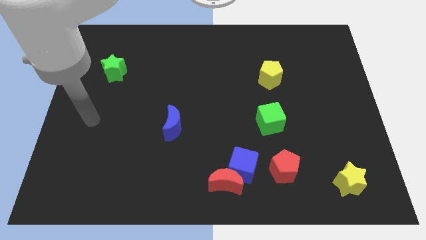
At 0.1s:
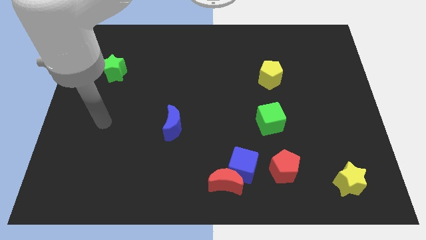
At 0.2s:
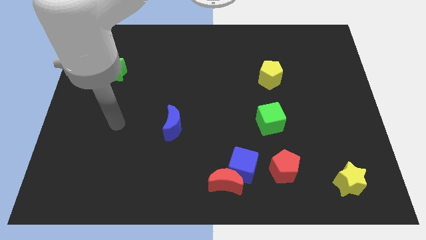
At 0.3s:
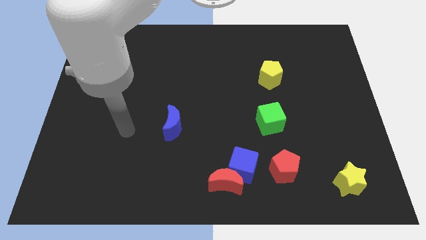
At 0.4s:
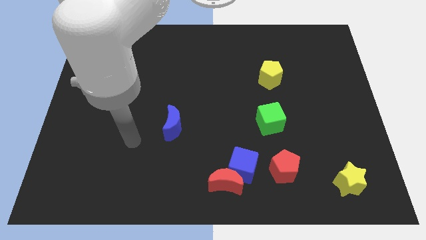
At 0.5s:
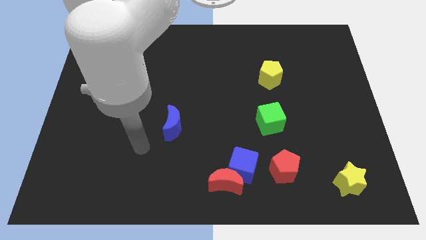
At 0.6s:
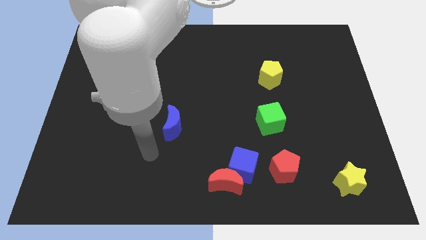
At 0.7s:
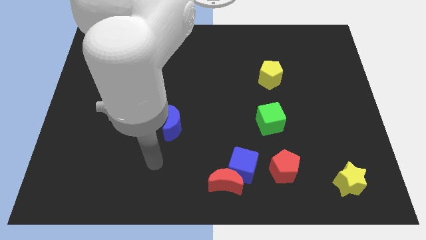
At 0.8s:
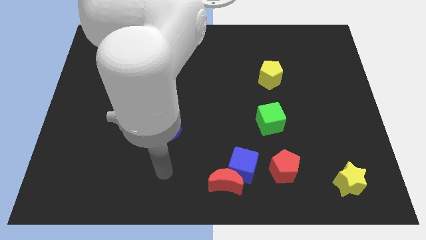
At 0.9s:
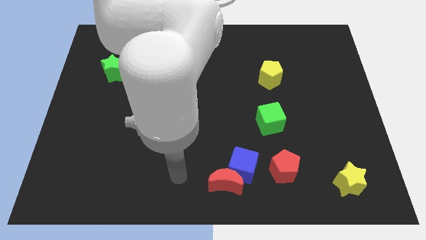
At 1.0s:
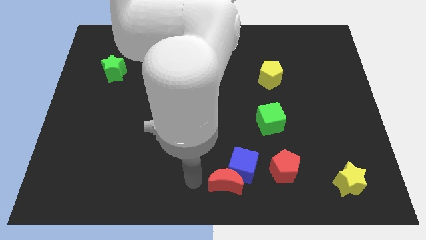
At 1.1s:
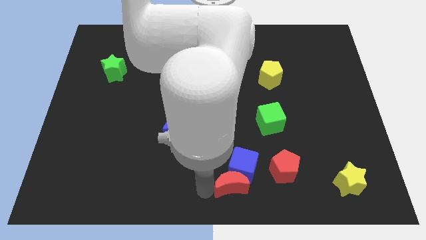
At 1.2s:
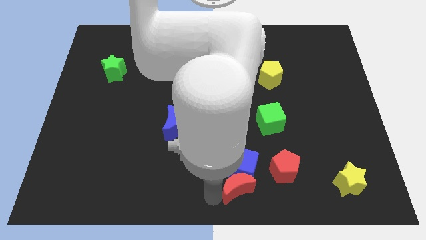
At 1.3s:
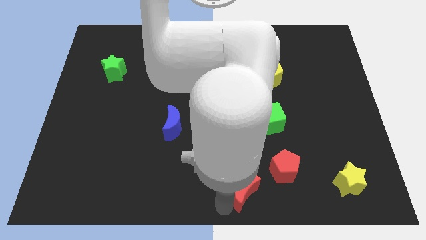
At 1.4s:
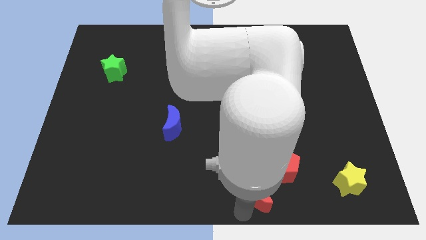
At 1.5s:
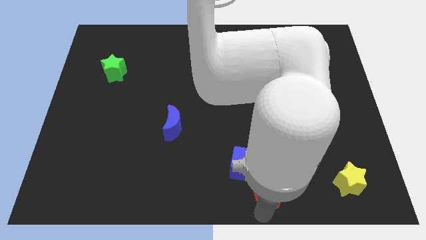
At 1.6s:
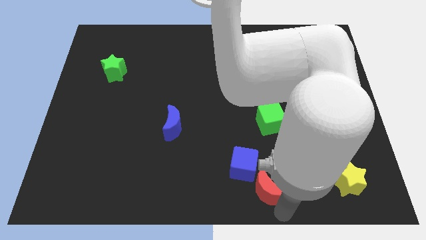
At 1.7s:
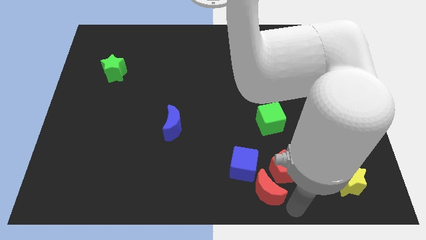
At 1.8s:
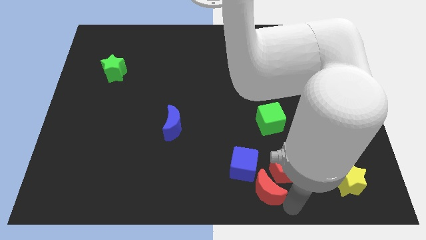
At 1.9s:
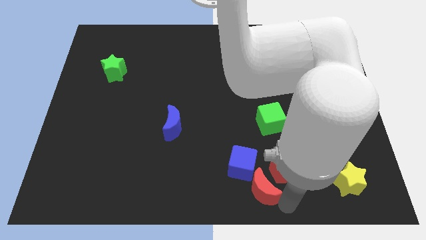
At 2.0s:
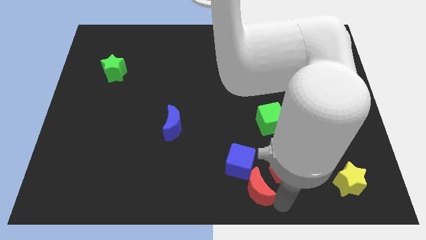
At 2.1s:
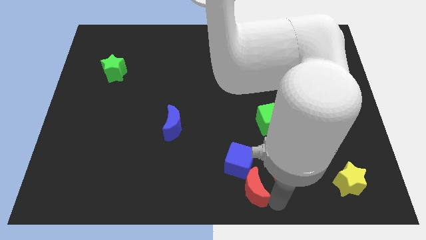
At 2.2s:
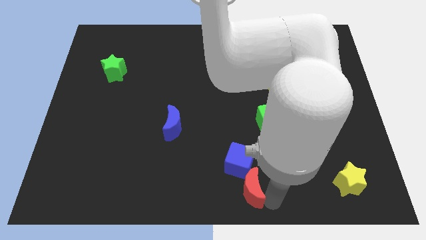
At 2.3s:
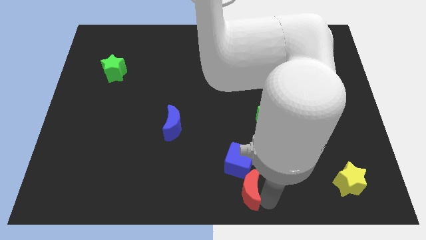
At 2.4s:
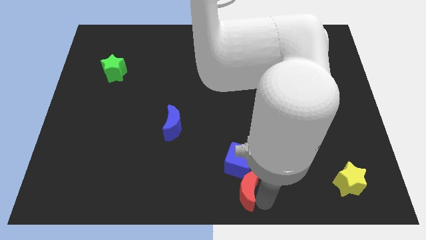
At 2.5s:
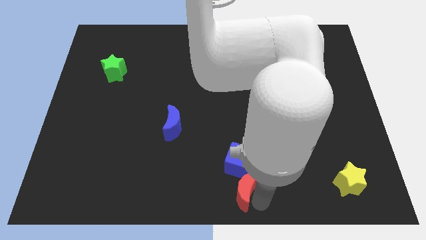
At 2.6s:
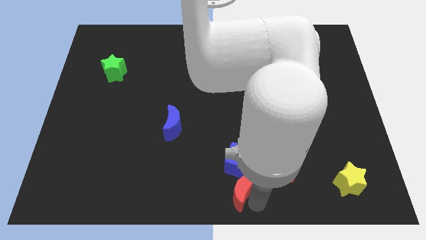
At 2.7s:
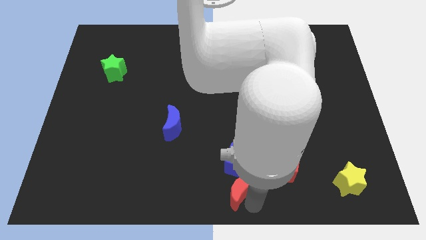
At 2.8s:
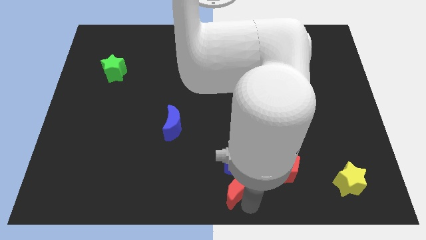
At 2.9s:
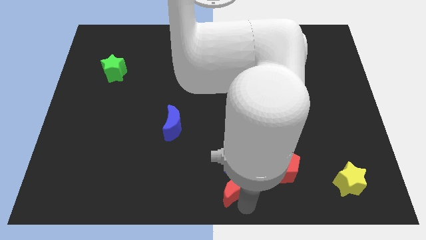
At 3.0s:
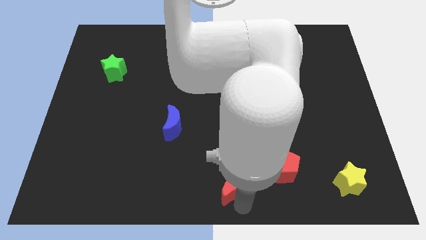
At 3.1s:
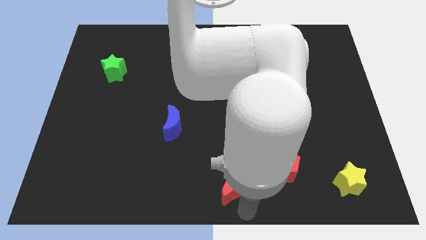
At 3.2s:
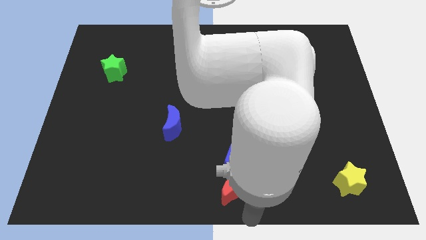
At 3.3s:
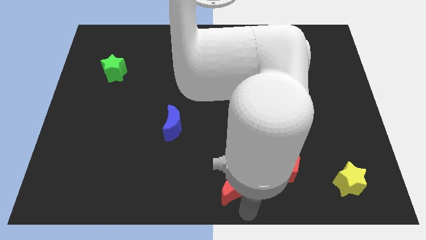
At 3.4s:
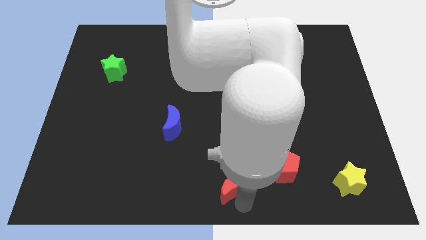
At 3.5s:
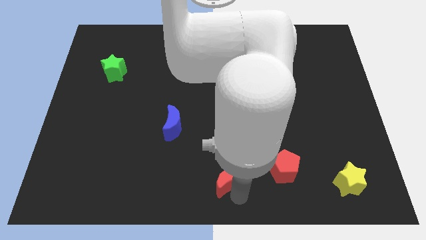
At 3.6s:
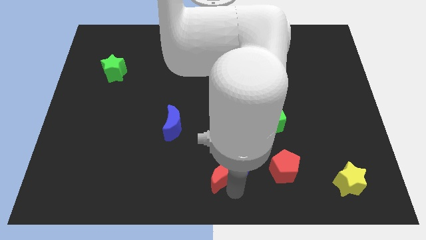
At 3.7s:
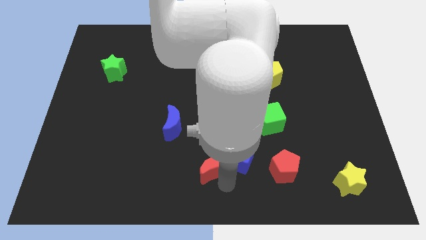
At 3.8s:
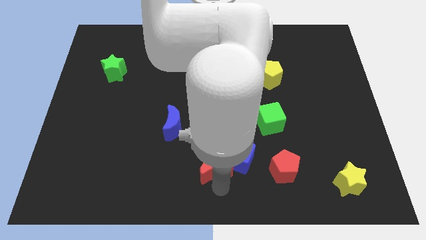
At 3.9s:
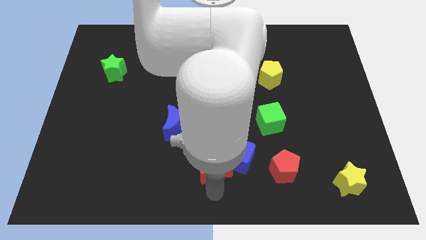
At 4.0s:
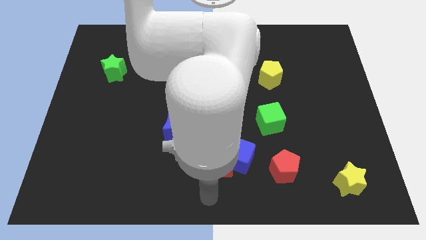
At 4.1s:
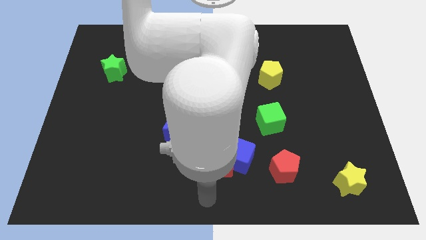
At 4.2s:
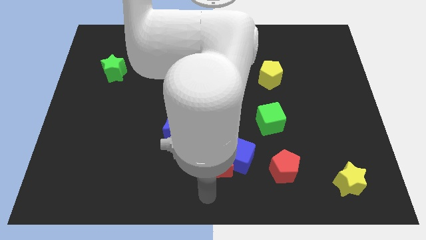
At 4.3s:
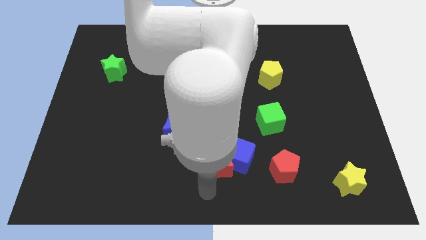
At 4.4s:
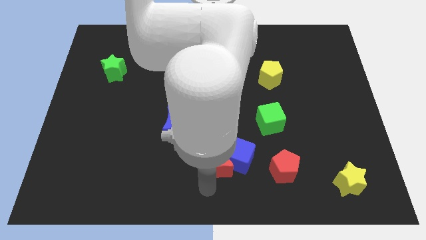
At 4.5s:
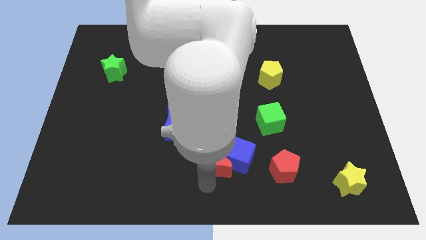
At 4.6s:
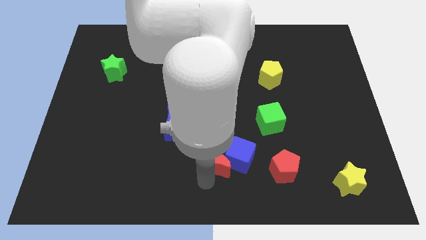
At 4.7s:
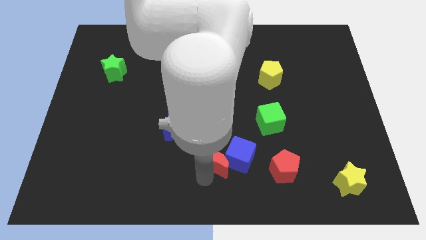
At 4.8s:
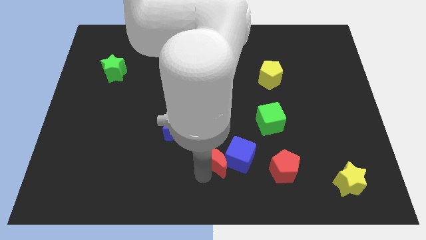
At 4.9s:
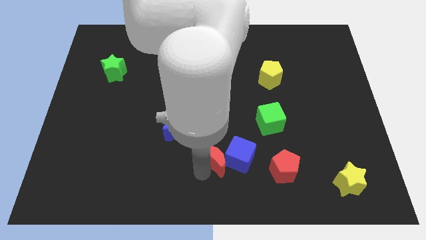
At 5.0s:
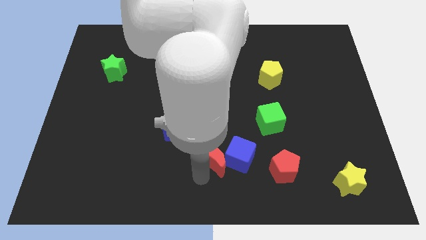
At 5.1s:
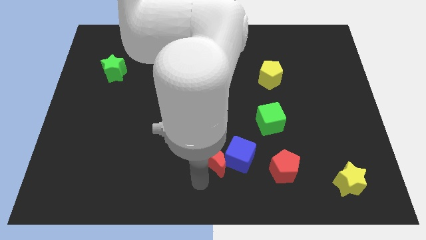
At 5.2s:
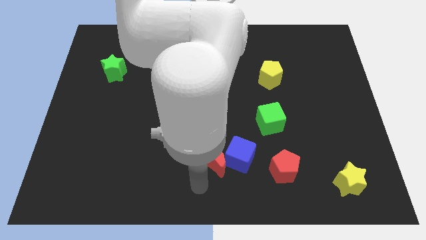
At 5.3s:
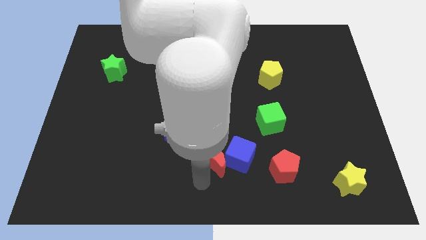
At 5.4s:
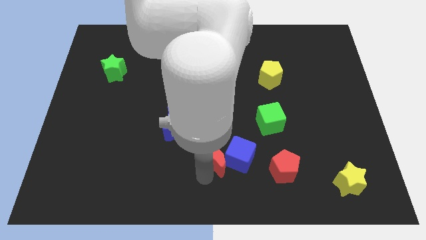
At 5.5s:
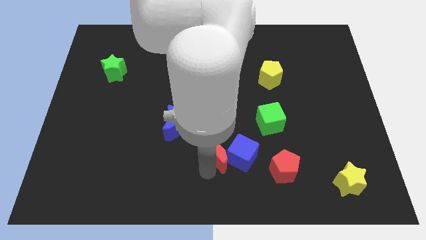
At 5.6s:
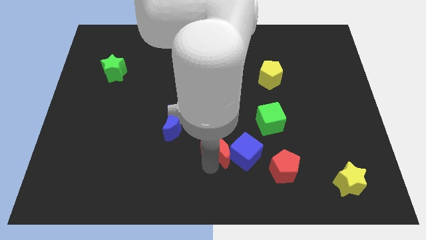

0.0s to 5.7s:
push the red moon upwards a bit

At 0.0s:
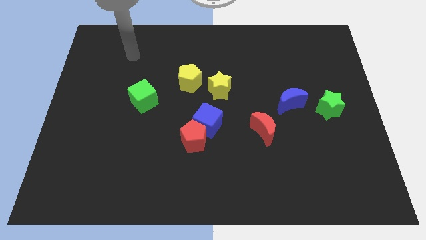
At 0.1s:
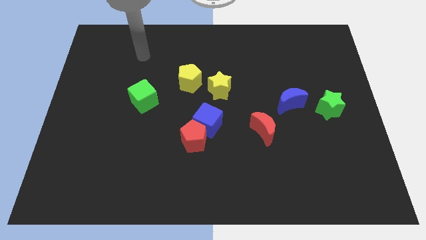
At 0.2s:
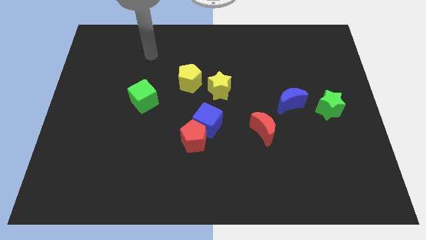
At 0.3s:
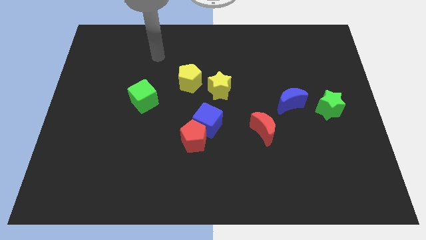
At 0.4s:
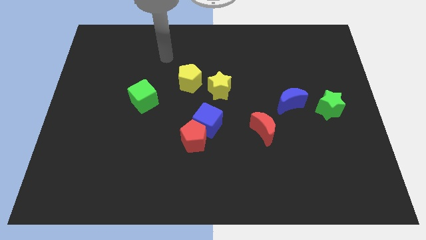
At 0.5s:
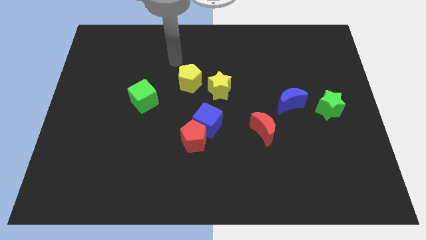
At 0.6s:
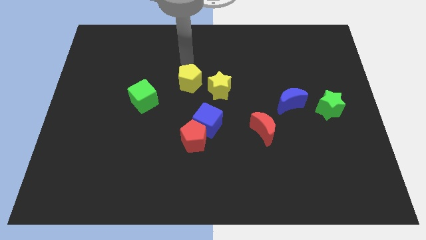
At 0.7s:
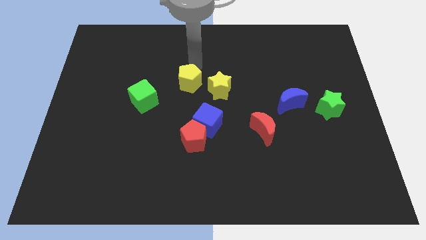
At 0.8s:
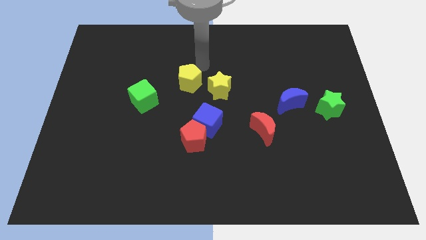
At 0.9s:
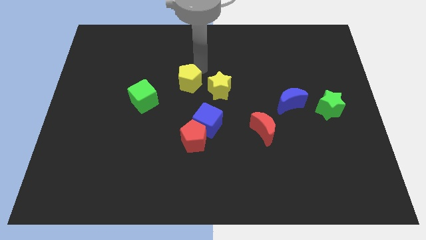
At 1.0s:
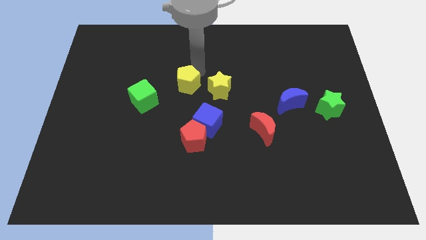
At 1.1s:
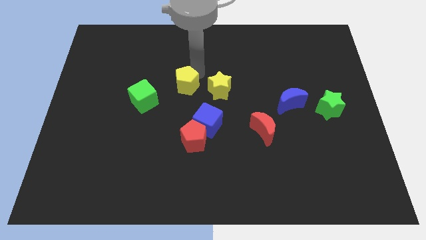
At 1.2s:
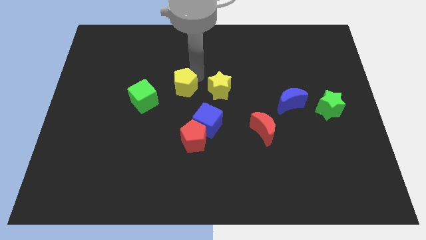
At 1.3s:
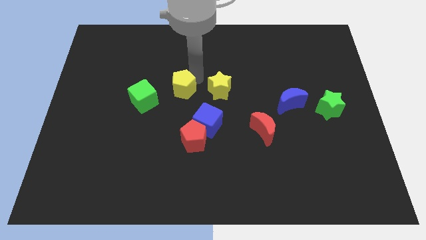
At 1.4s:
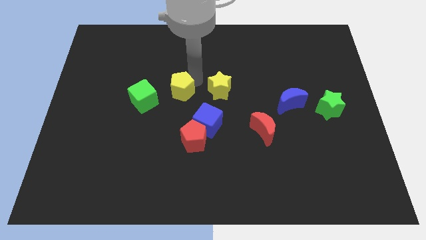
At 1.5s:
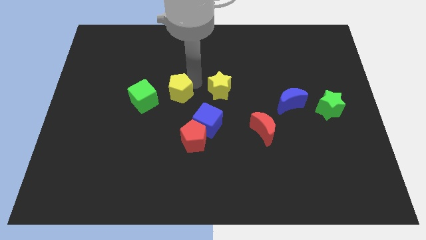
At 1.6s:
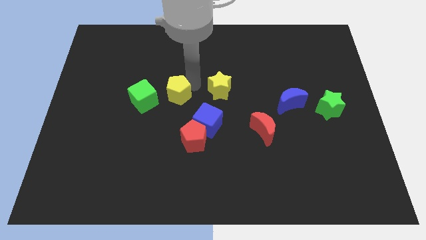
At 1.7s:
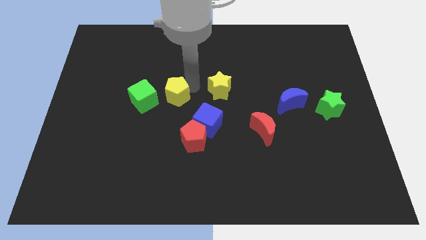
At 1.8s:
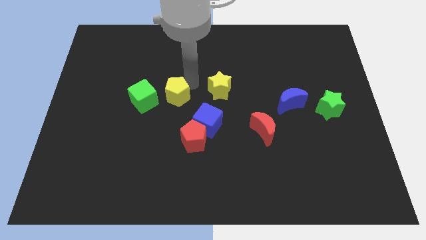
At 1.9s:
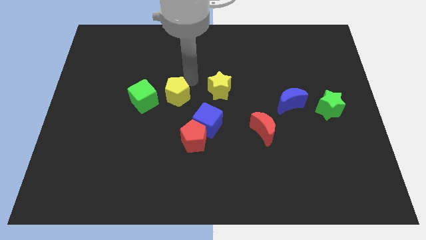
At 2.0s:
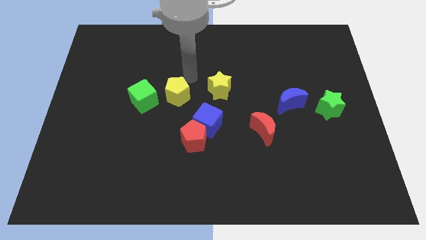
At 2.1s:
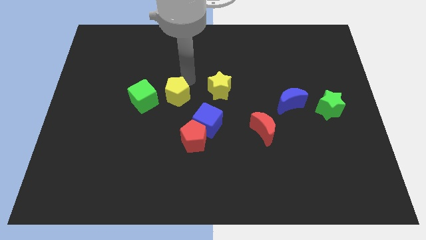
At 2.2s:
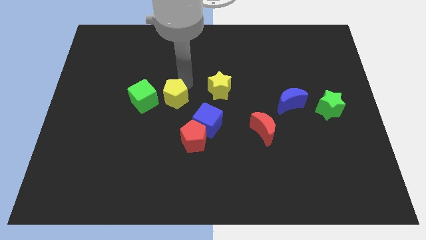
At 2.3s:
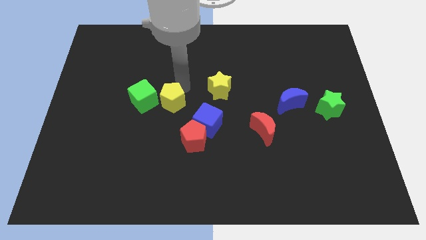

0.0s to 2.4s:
push the yellow pentagon downwards and left diagonally somewhat

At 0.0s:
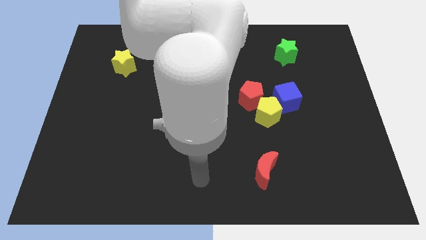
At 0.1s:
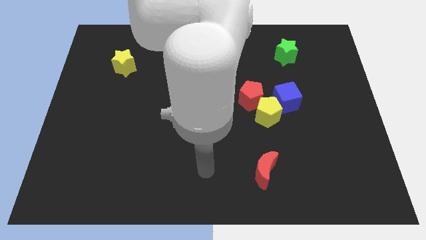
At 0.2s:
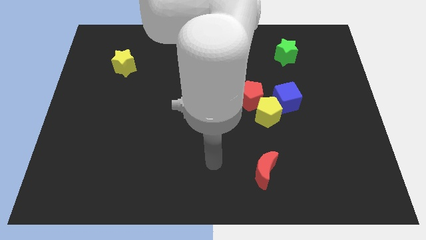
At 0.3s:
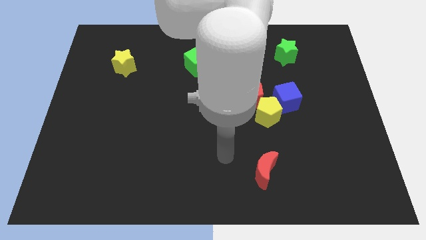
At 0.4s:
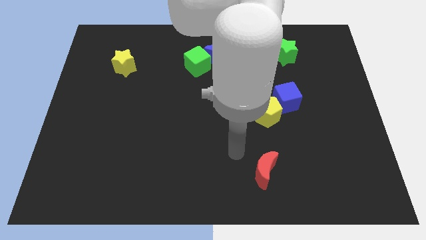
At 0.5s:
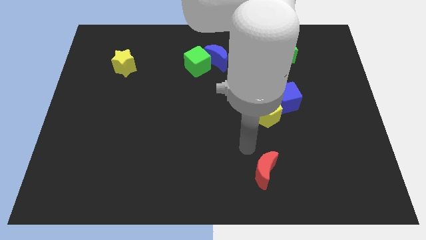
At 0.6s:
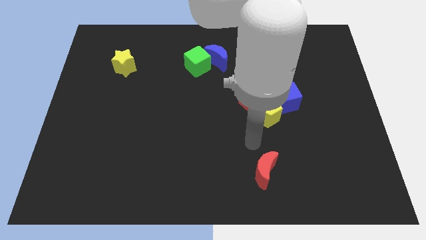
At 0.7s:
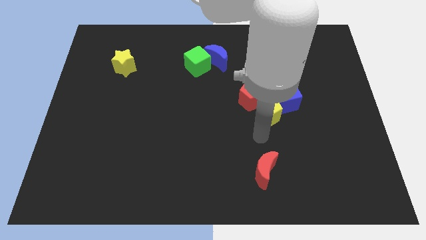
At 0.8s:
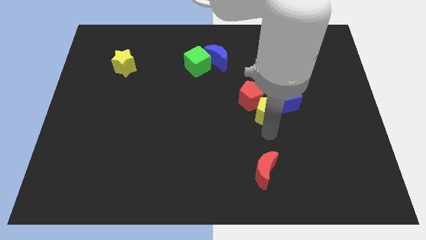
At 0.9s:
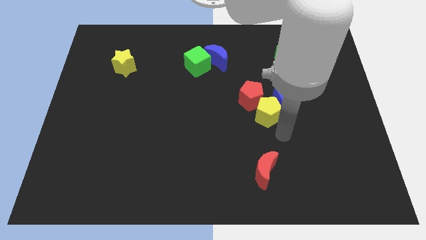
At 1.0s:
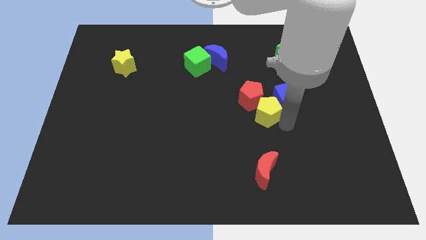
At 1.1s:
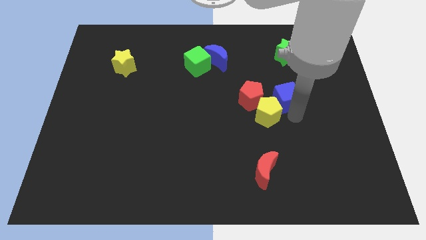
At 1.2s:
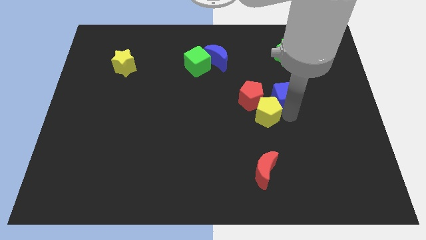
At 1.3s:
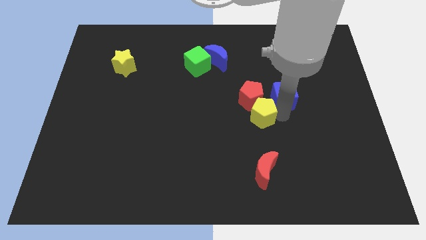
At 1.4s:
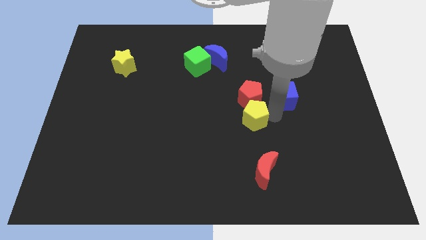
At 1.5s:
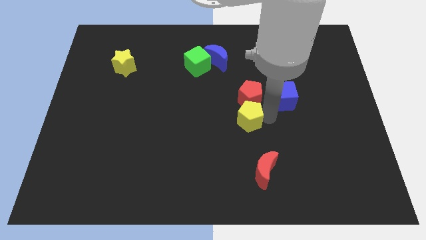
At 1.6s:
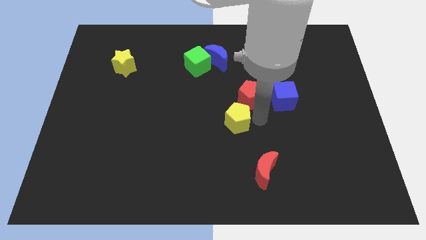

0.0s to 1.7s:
slide the yellow pentagon slightly to the left
